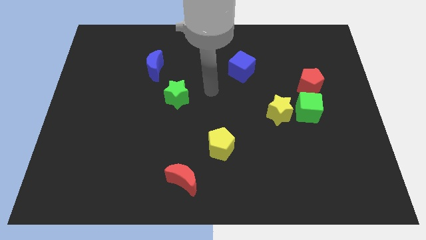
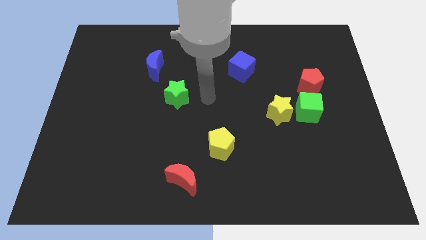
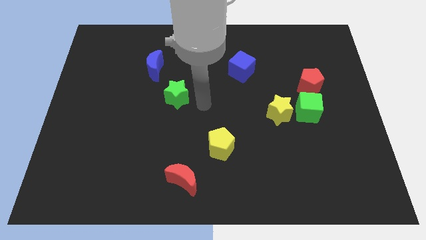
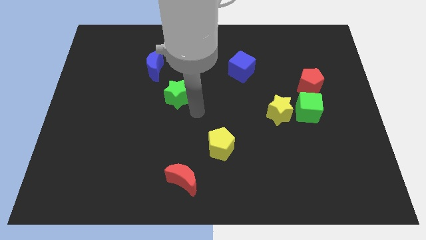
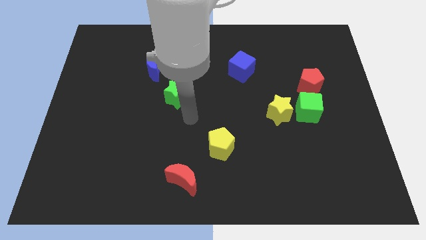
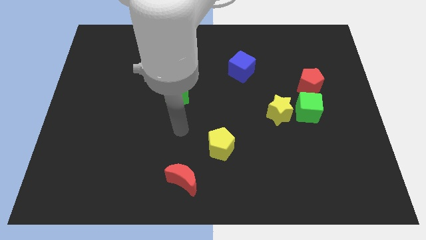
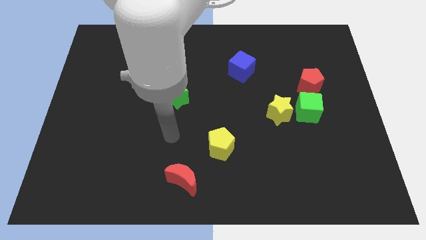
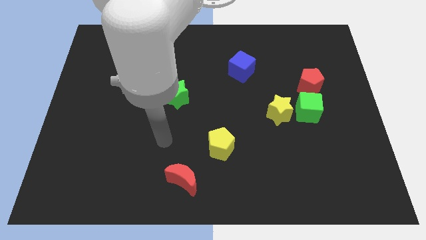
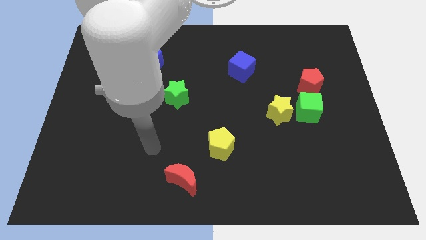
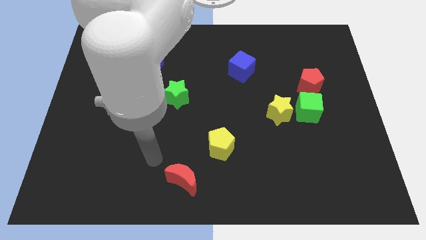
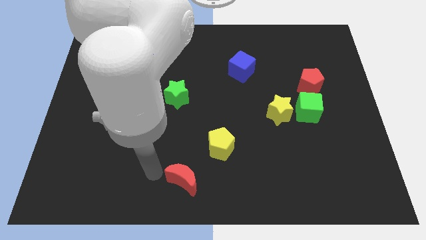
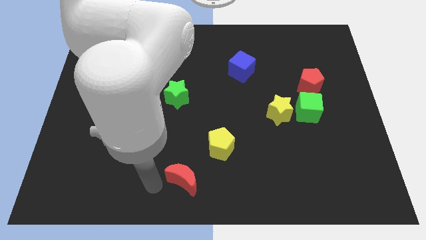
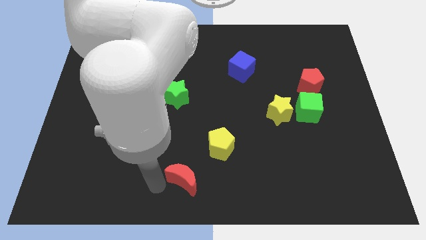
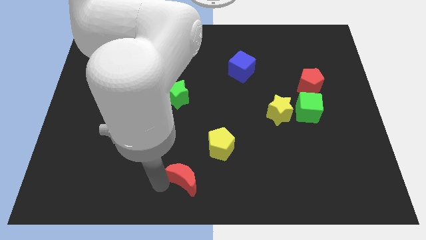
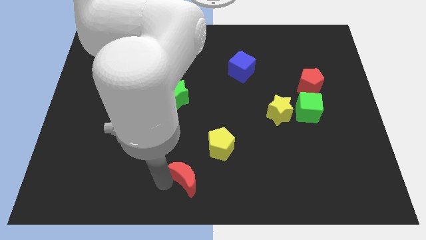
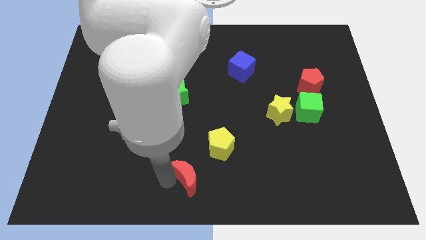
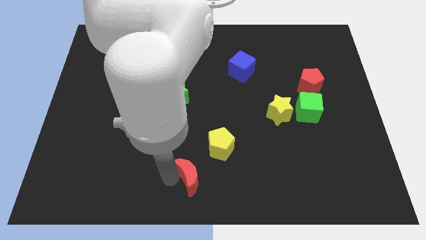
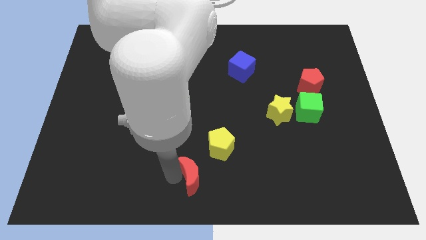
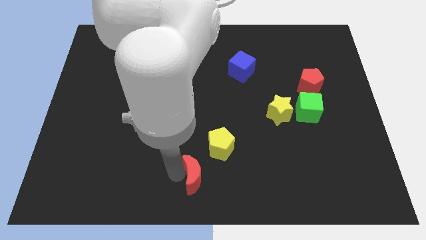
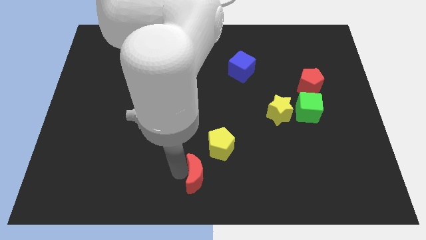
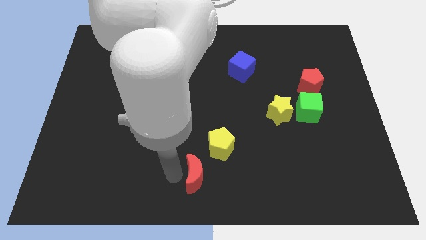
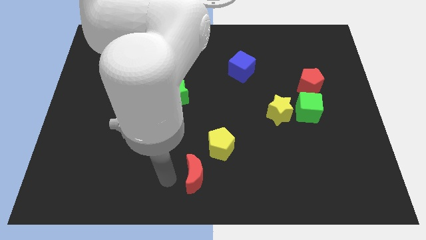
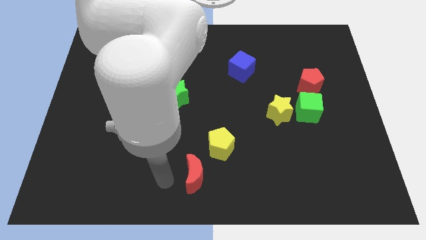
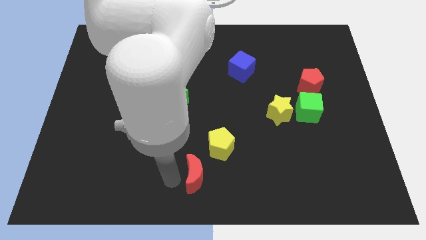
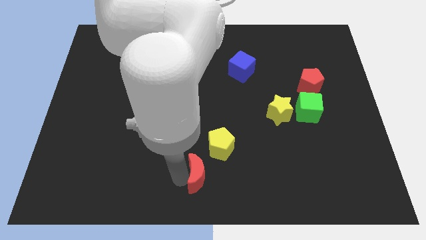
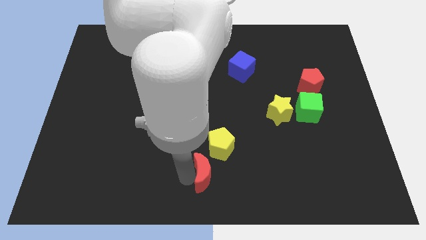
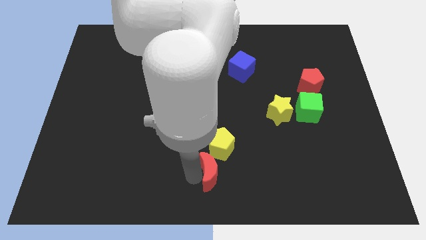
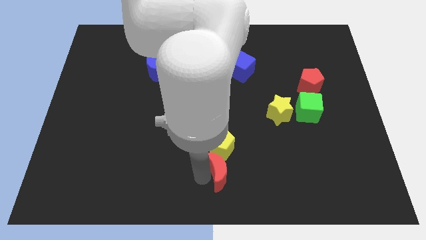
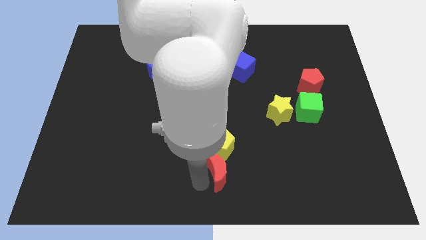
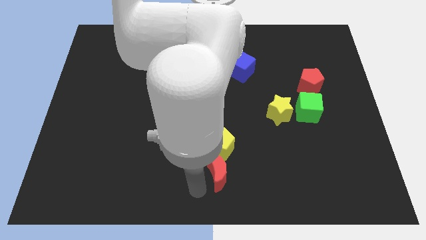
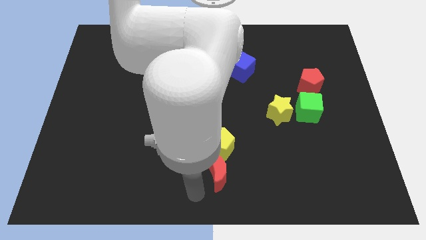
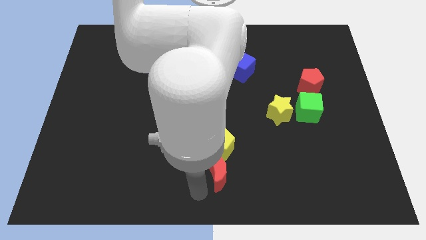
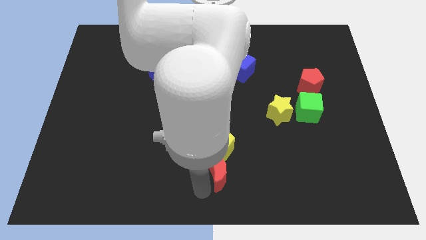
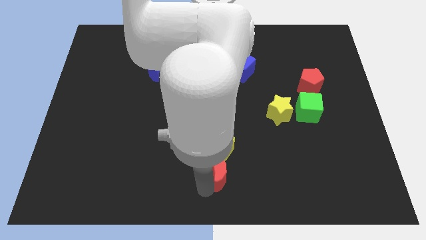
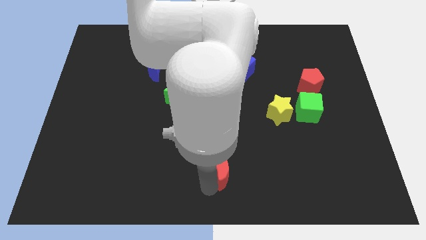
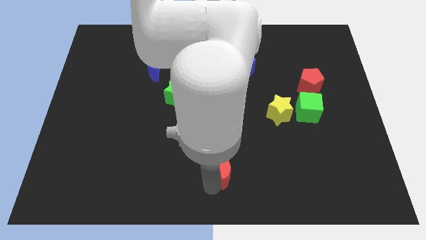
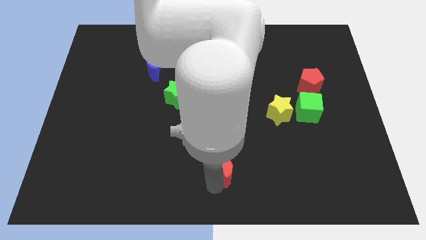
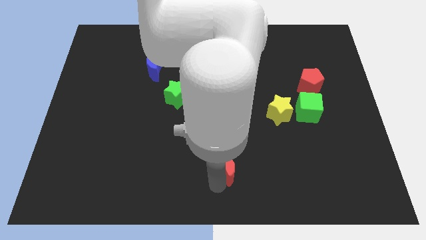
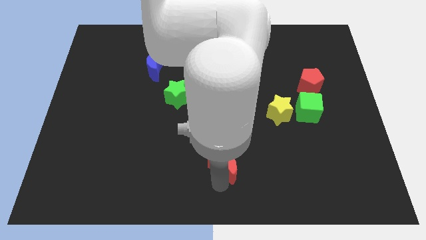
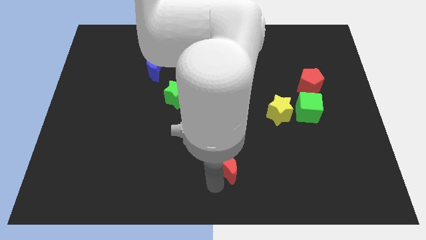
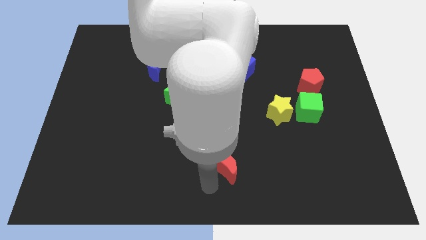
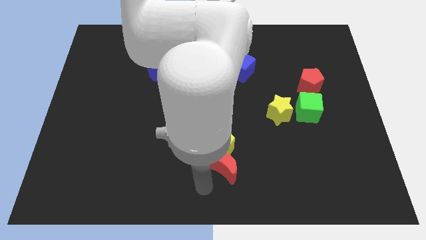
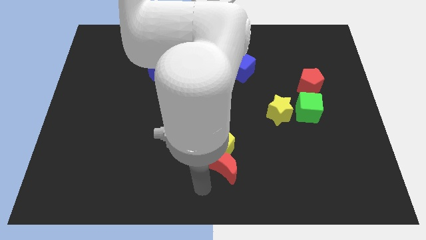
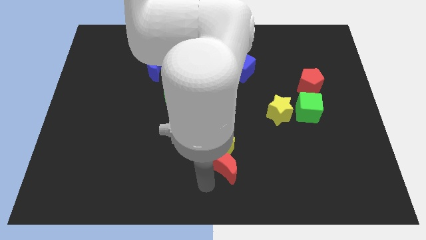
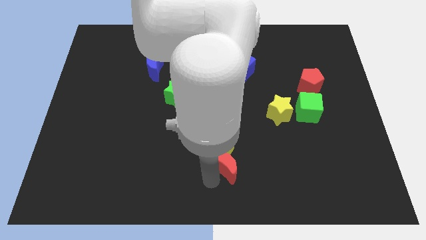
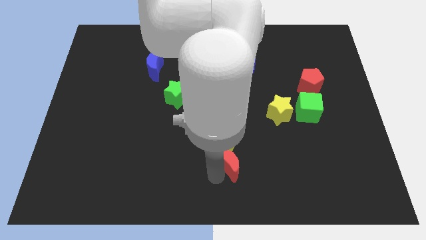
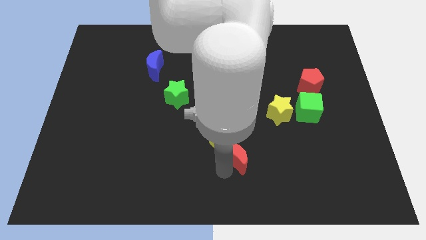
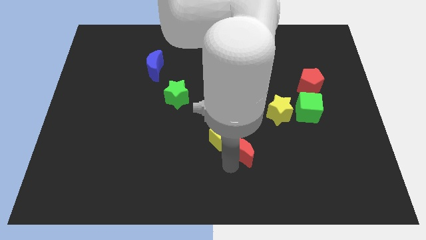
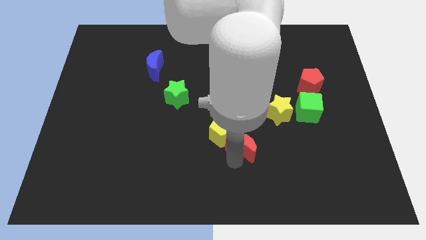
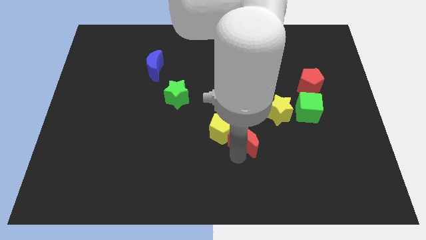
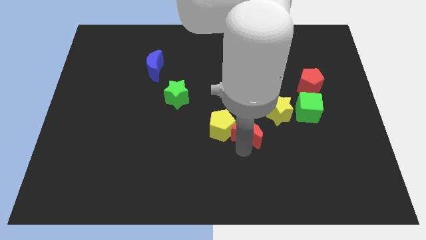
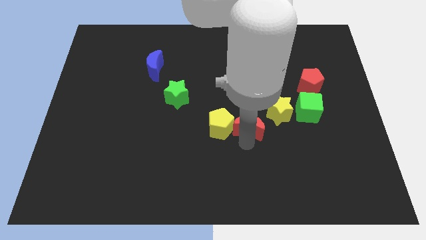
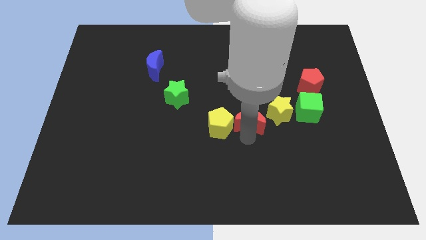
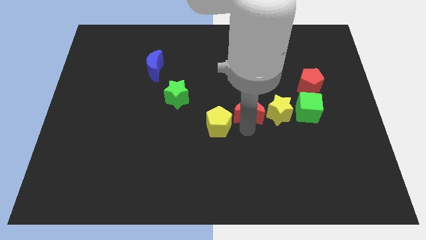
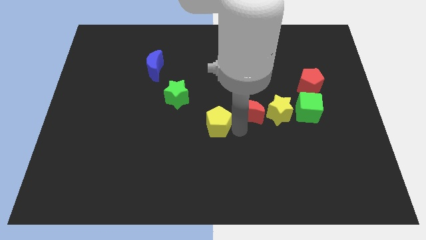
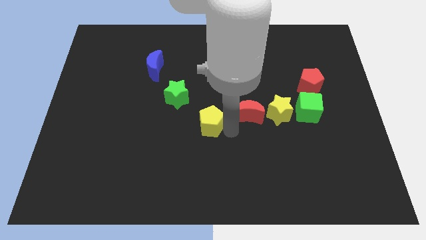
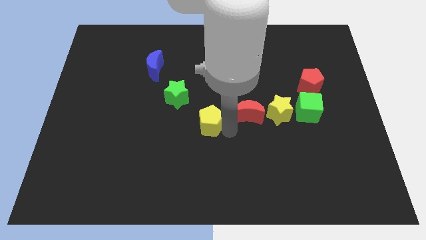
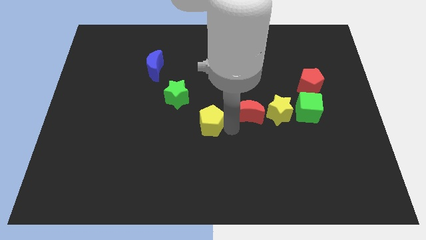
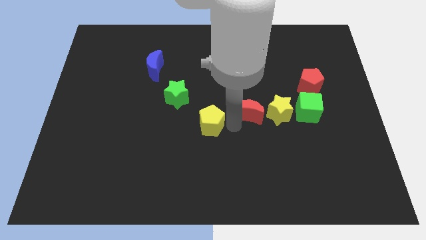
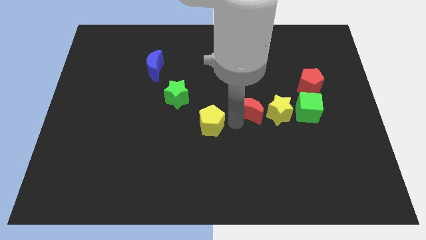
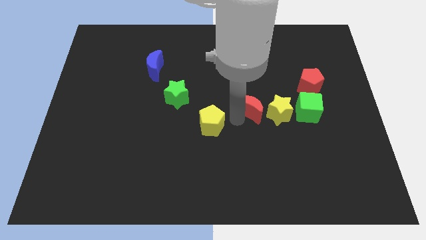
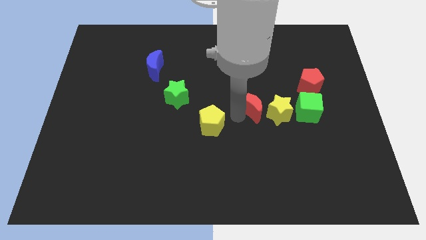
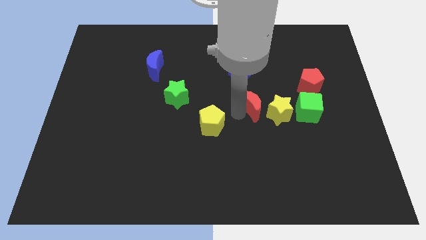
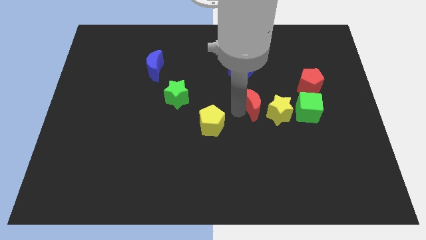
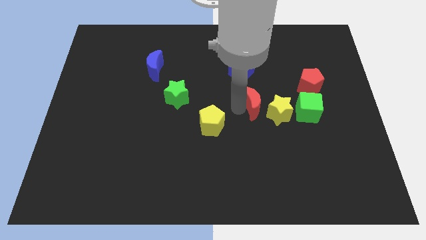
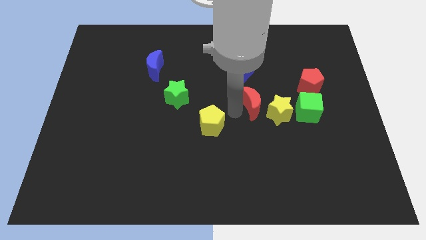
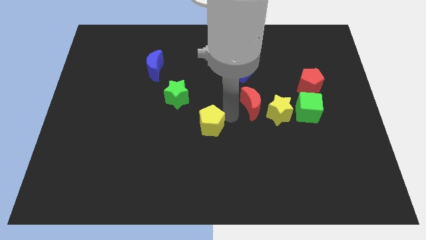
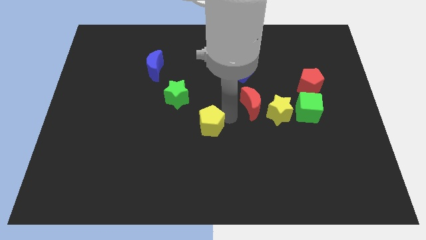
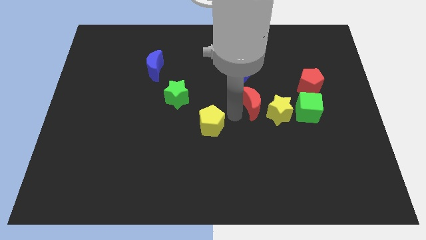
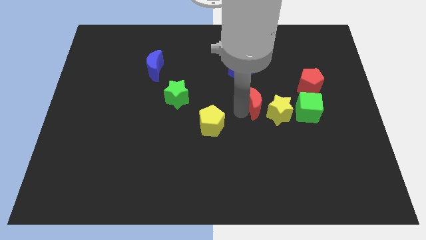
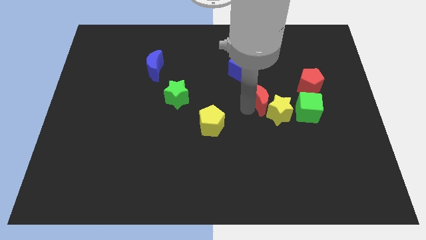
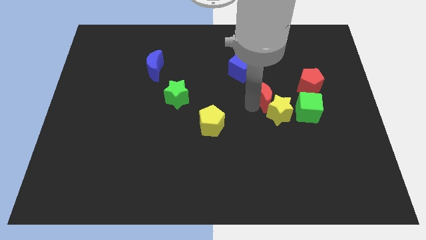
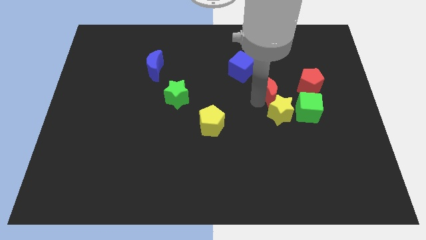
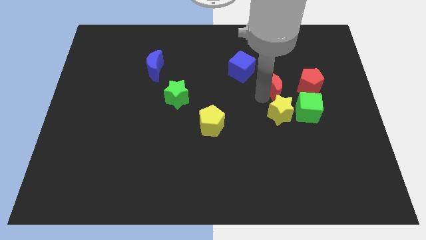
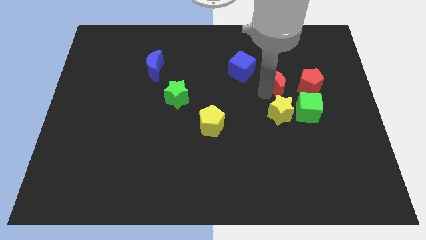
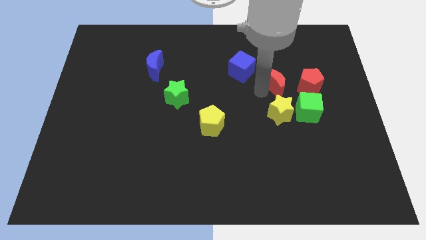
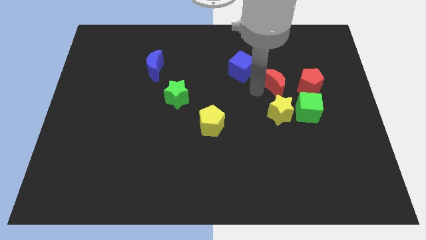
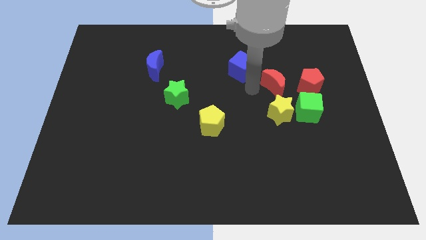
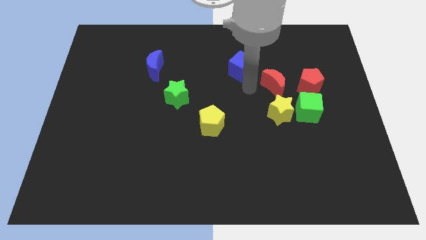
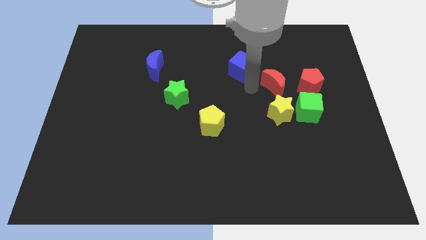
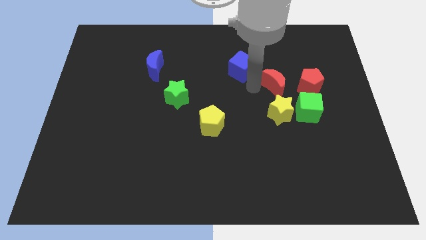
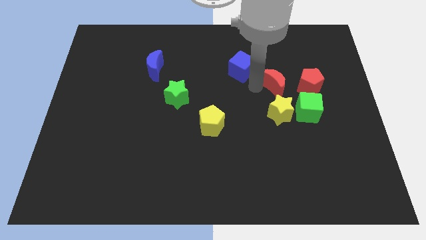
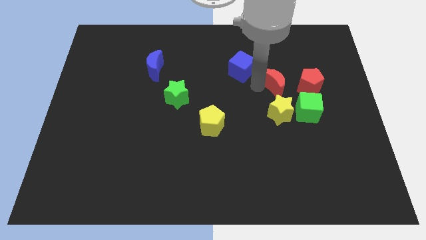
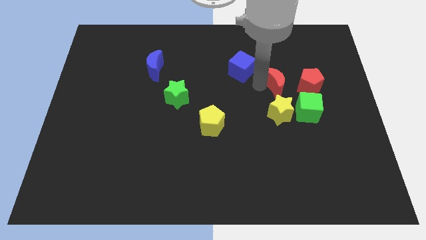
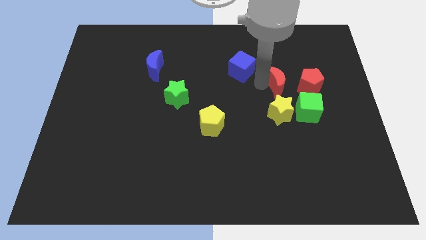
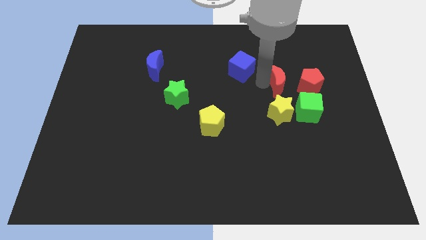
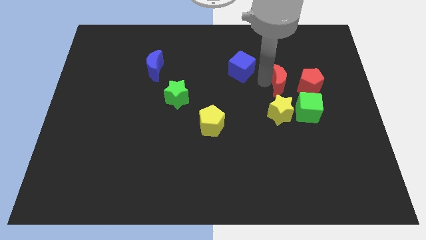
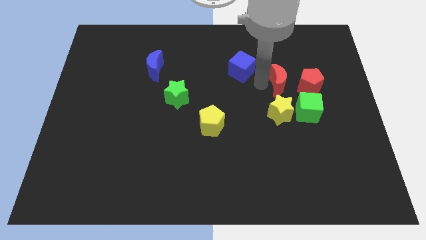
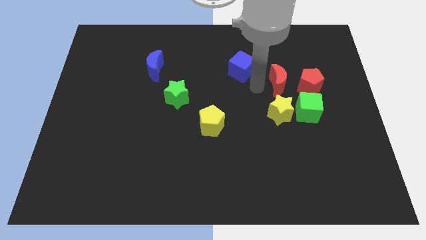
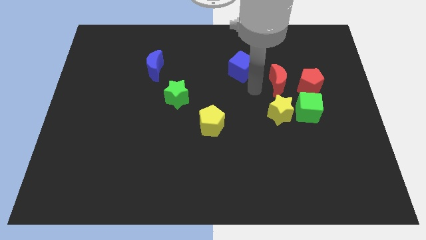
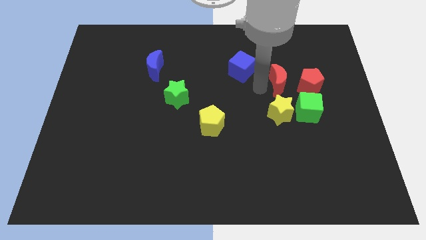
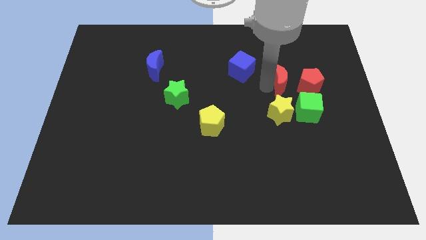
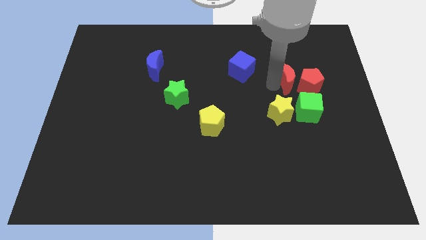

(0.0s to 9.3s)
move the red moon to the top side of the green cube
